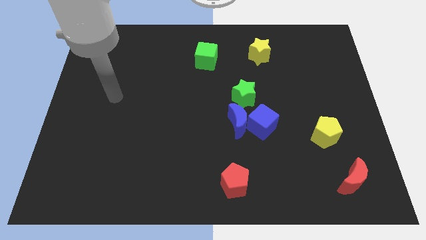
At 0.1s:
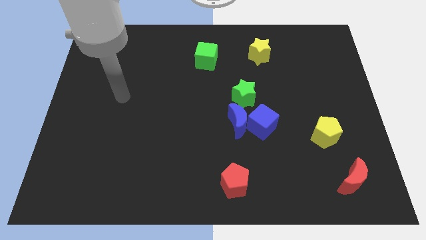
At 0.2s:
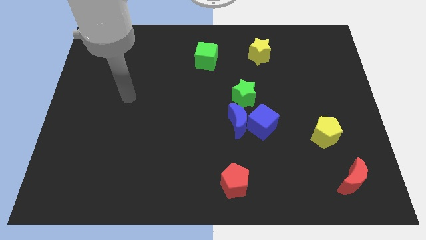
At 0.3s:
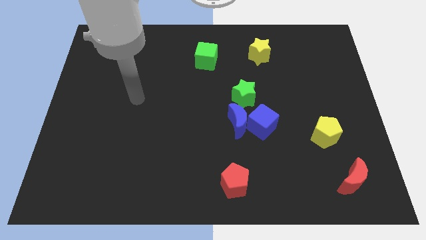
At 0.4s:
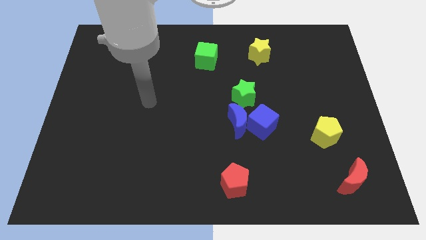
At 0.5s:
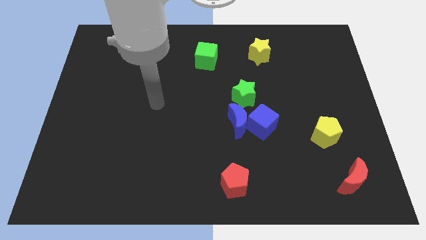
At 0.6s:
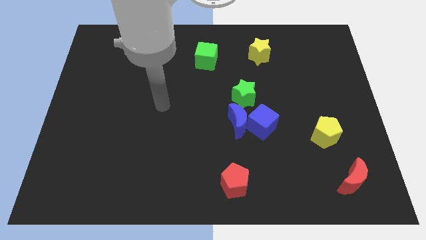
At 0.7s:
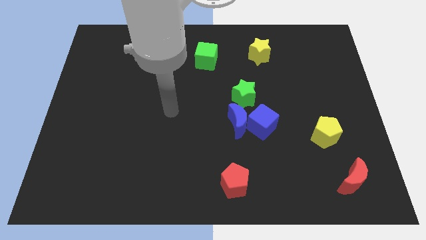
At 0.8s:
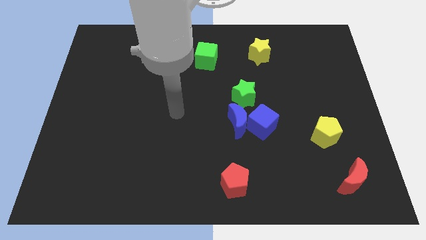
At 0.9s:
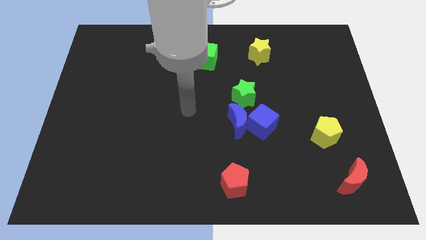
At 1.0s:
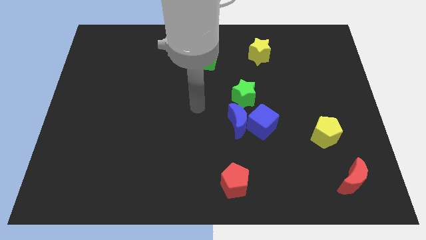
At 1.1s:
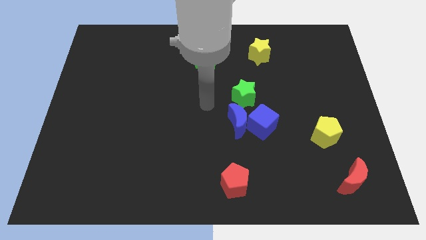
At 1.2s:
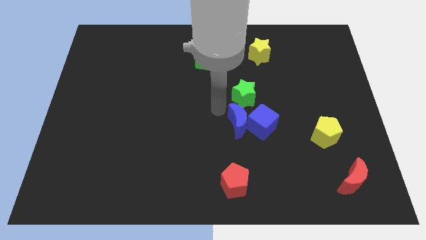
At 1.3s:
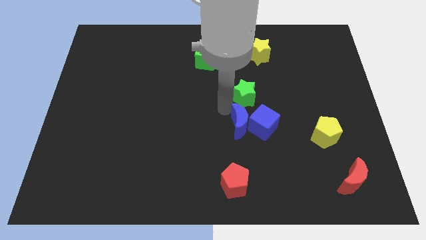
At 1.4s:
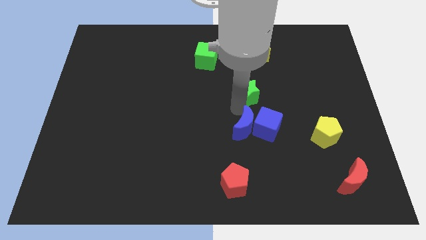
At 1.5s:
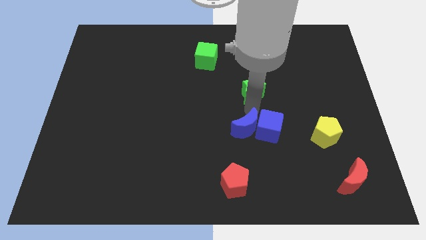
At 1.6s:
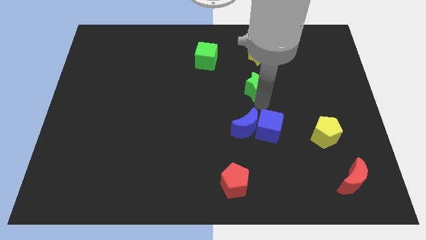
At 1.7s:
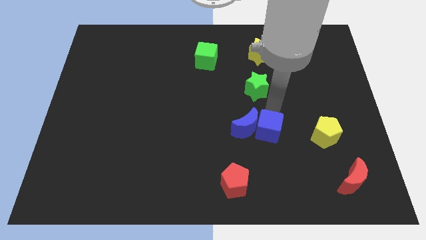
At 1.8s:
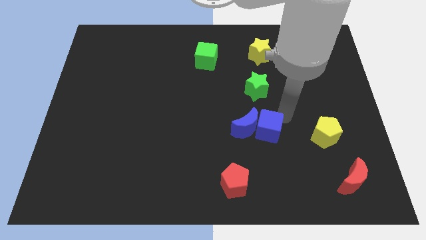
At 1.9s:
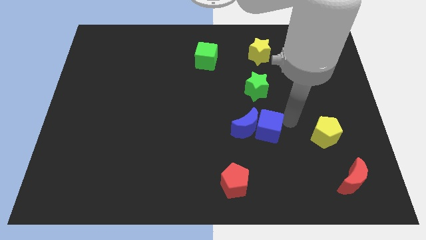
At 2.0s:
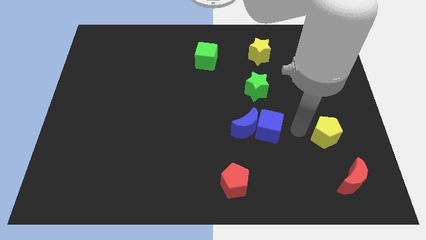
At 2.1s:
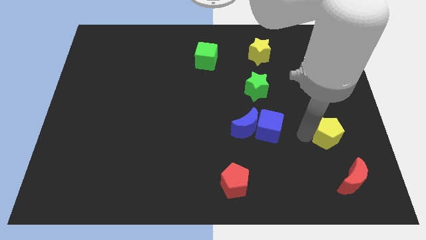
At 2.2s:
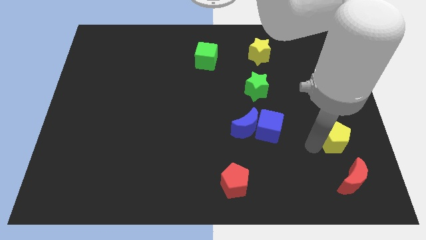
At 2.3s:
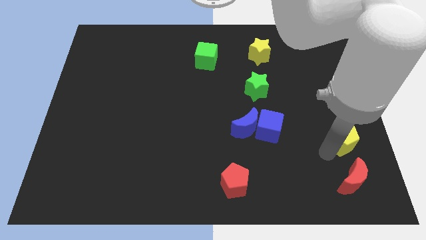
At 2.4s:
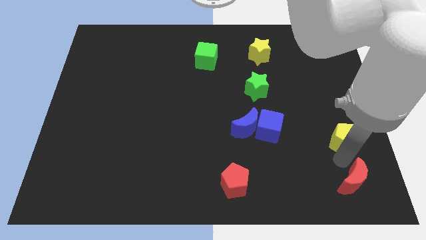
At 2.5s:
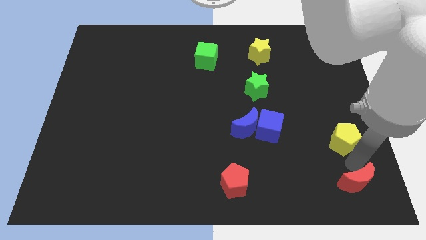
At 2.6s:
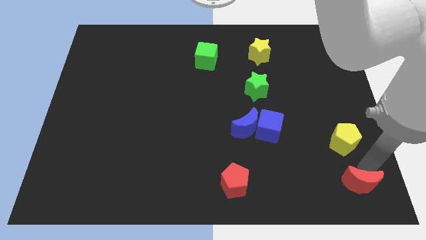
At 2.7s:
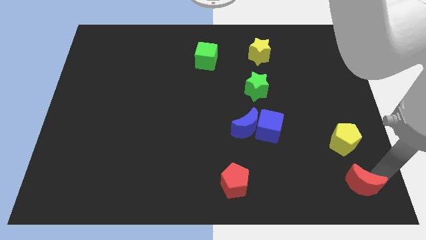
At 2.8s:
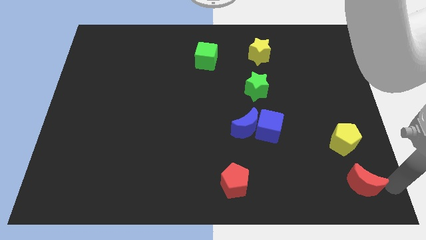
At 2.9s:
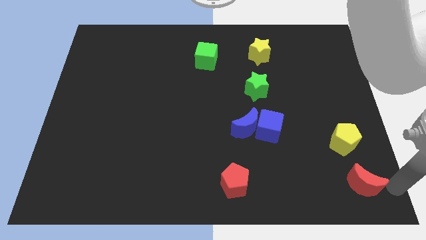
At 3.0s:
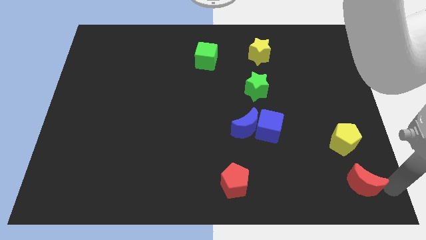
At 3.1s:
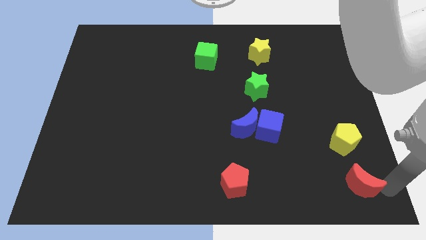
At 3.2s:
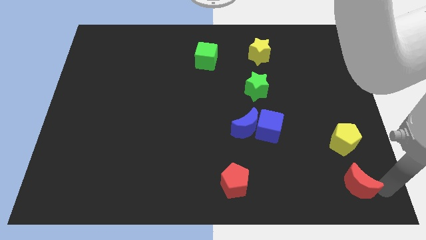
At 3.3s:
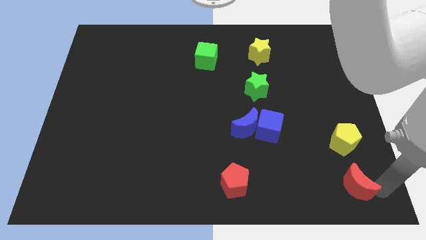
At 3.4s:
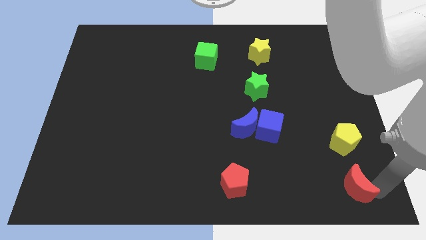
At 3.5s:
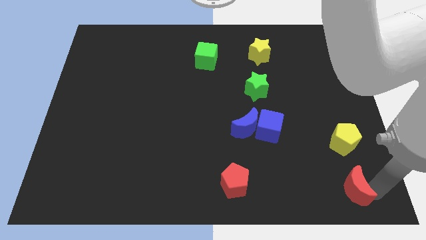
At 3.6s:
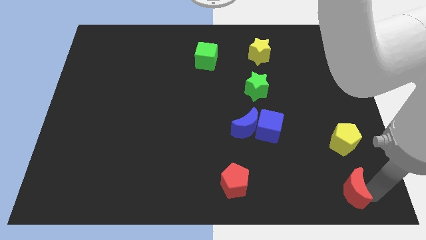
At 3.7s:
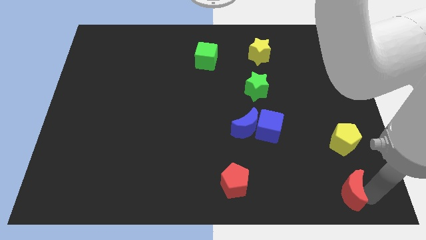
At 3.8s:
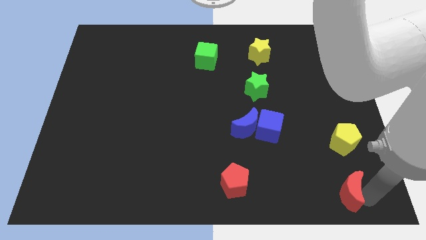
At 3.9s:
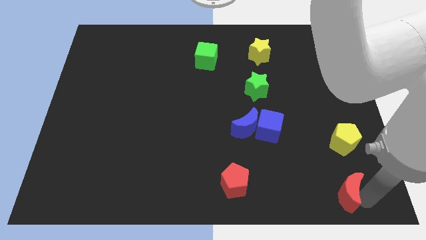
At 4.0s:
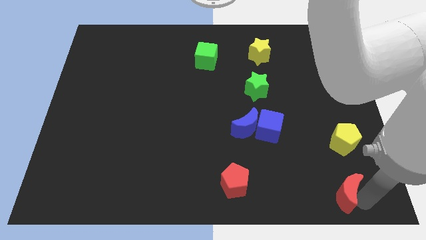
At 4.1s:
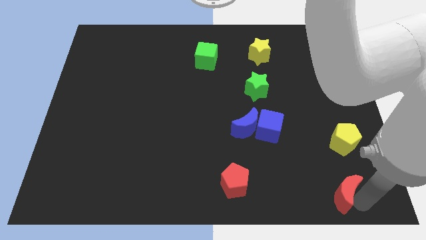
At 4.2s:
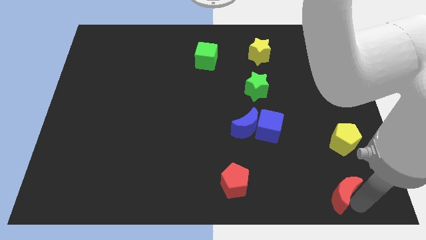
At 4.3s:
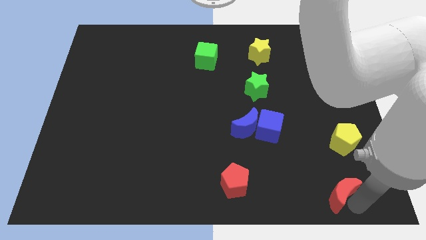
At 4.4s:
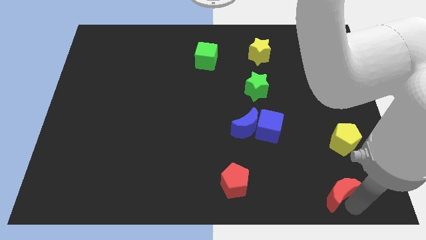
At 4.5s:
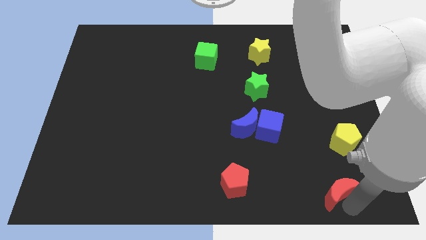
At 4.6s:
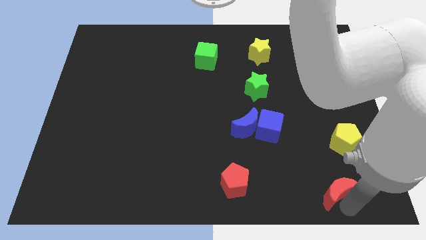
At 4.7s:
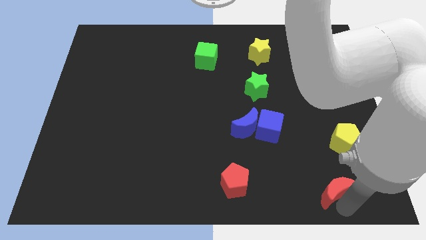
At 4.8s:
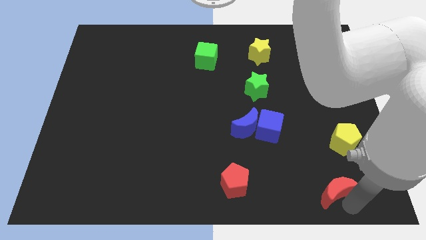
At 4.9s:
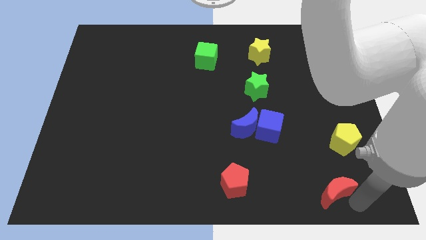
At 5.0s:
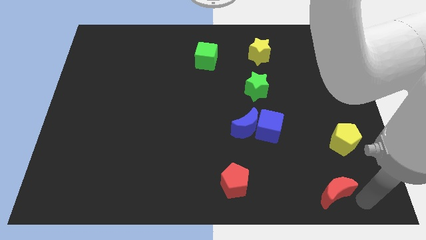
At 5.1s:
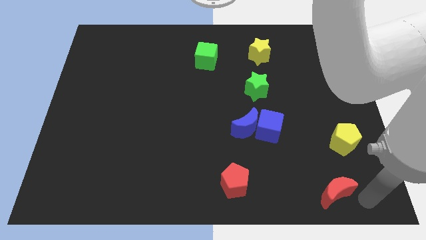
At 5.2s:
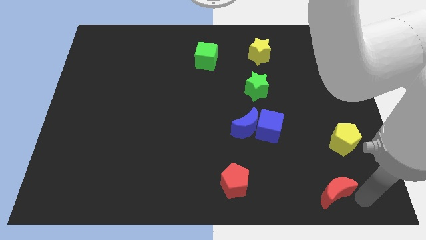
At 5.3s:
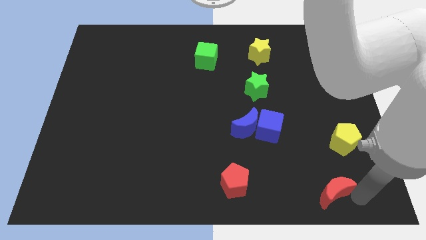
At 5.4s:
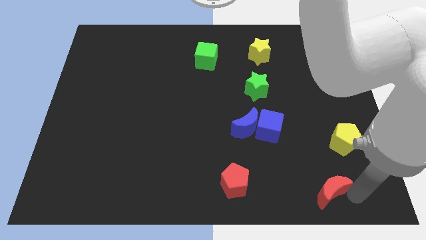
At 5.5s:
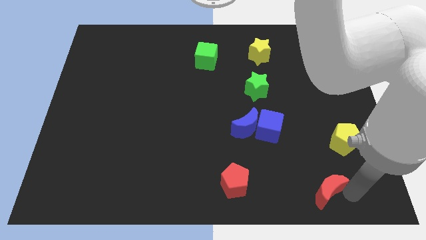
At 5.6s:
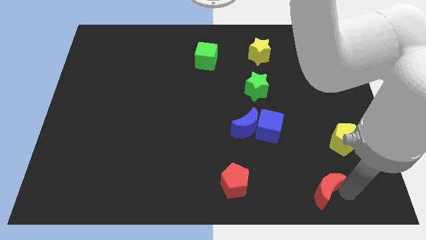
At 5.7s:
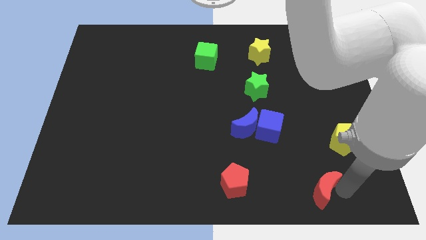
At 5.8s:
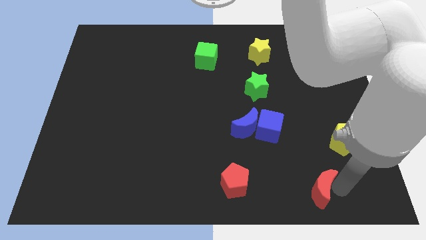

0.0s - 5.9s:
slide the red moon a little bit left

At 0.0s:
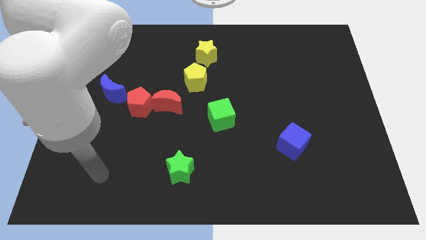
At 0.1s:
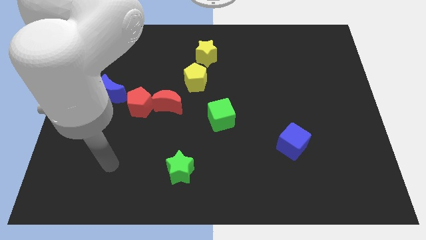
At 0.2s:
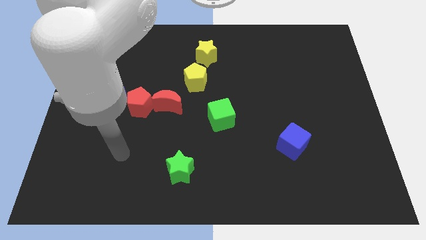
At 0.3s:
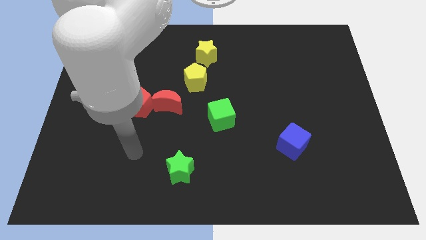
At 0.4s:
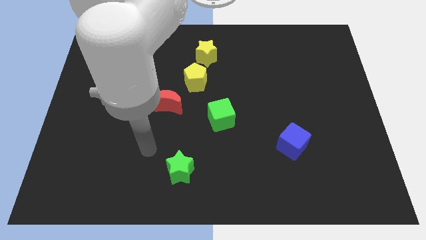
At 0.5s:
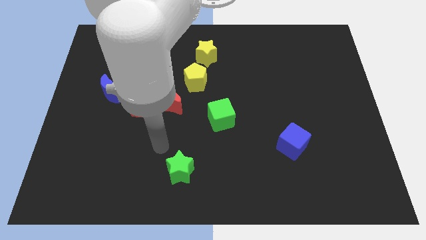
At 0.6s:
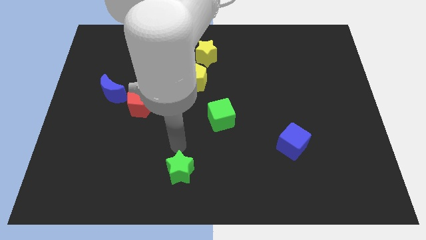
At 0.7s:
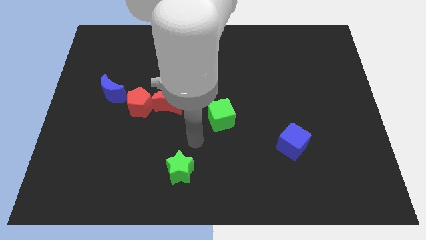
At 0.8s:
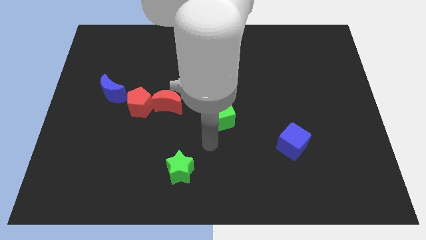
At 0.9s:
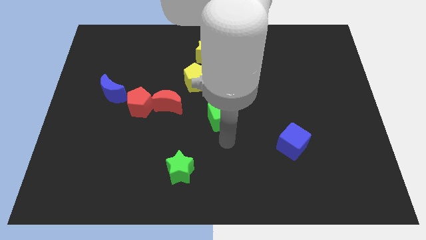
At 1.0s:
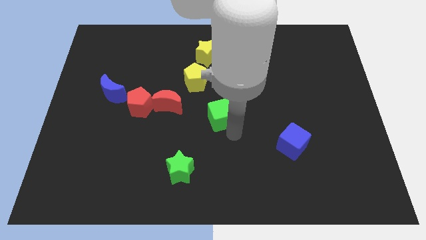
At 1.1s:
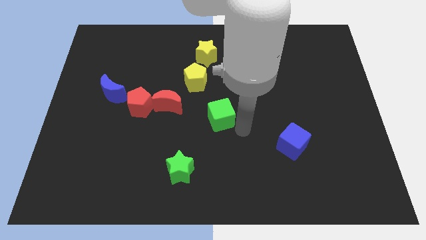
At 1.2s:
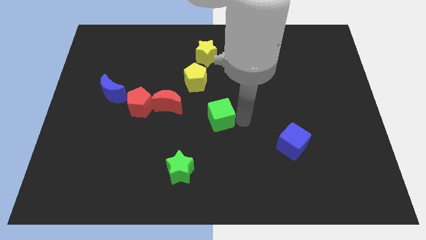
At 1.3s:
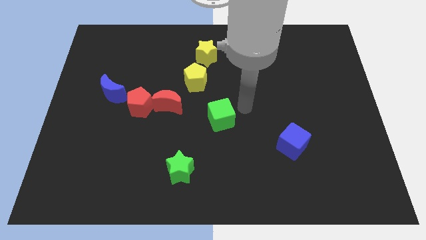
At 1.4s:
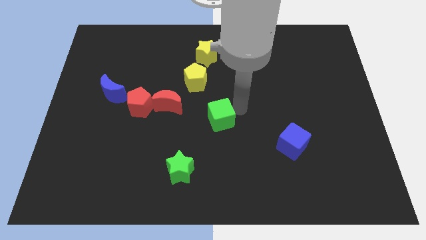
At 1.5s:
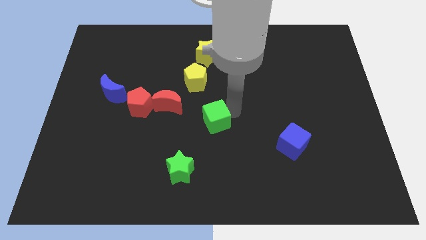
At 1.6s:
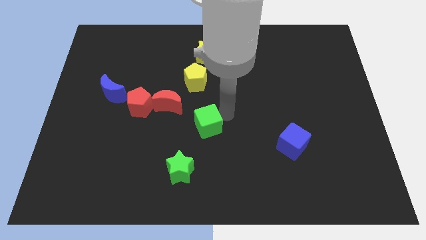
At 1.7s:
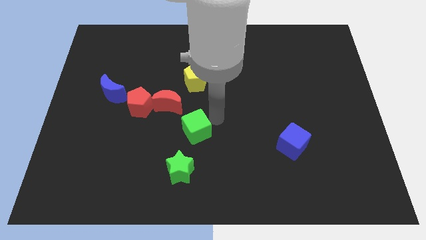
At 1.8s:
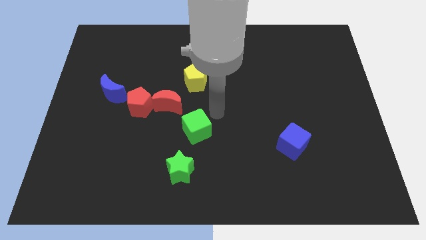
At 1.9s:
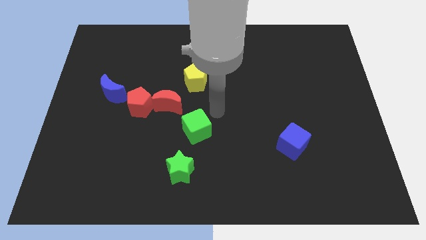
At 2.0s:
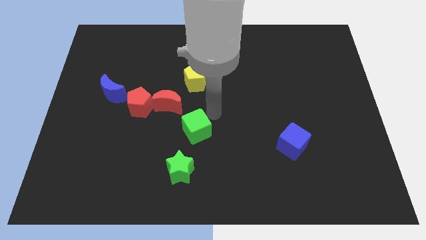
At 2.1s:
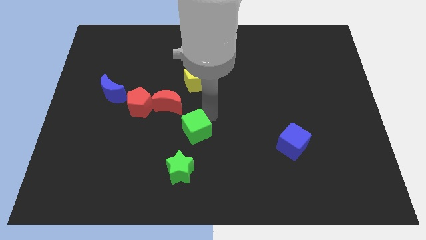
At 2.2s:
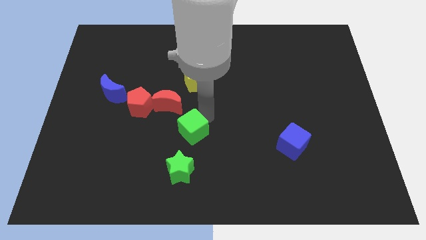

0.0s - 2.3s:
slide the green cube a little downwards and left diagonally
